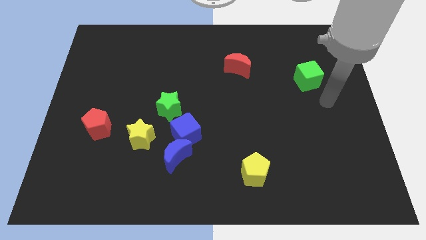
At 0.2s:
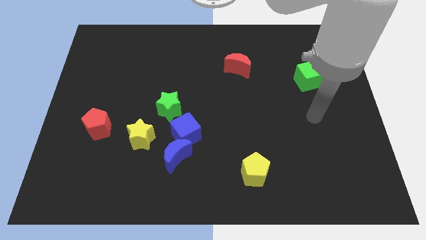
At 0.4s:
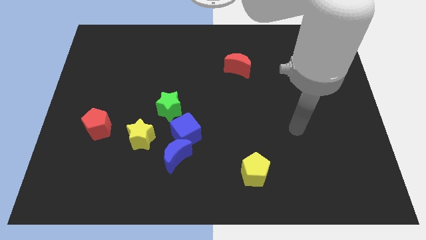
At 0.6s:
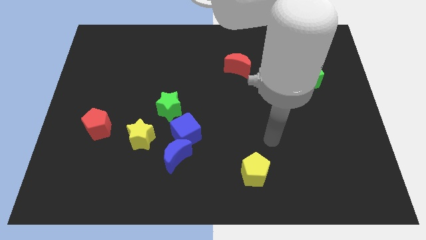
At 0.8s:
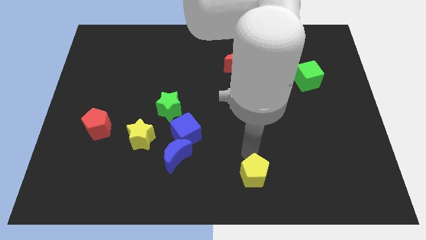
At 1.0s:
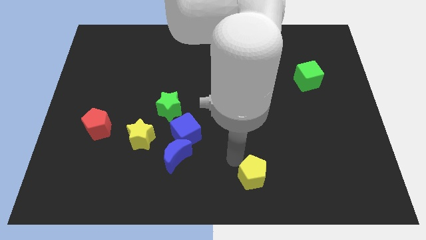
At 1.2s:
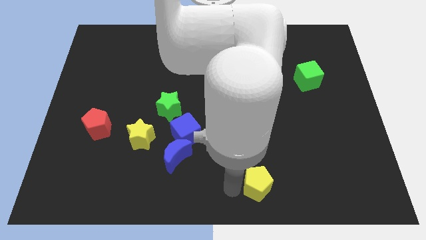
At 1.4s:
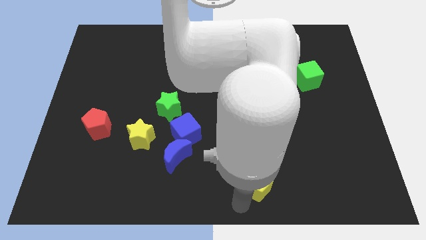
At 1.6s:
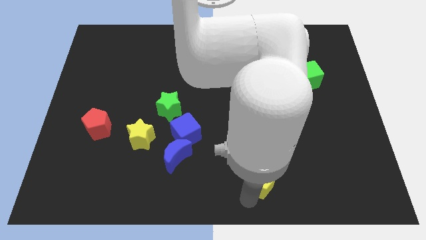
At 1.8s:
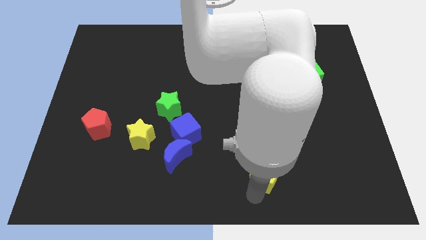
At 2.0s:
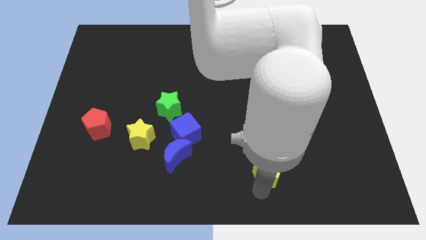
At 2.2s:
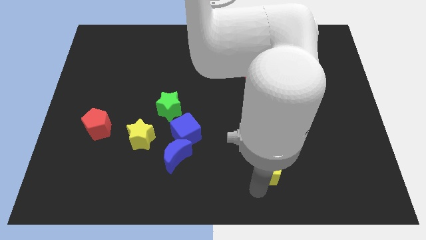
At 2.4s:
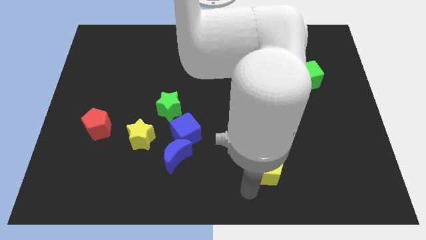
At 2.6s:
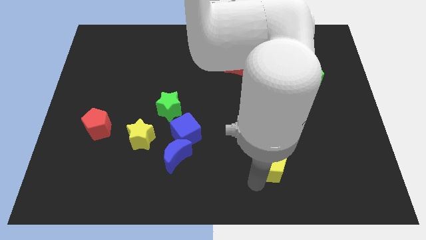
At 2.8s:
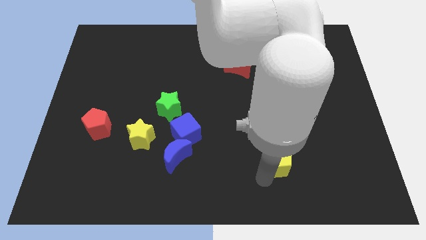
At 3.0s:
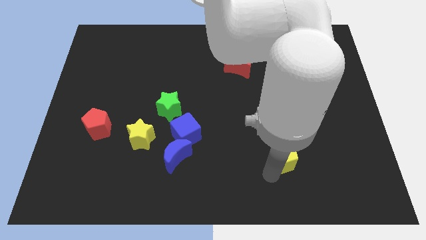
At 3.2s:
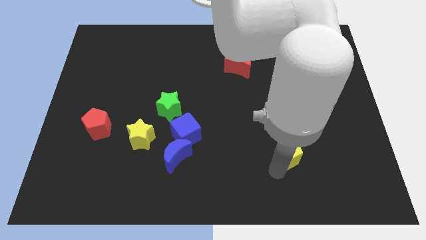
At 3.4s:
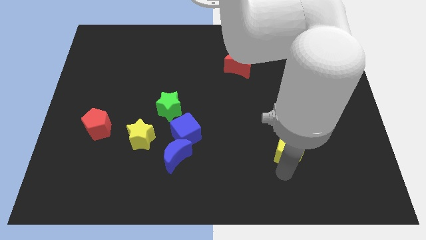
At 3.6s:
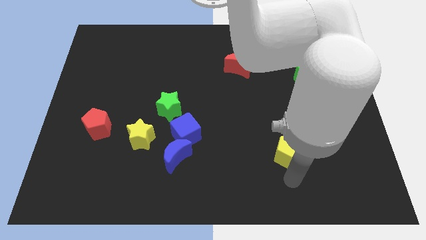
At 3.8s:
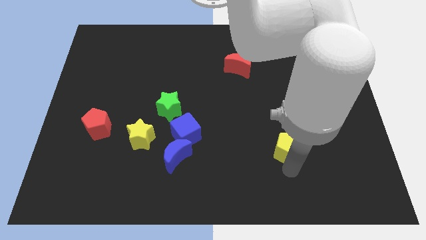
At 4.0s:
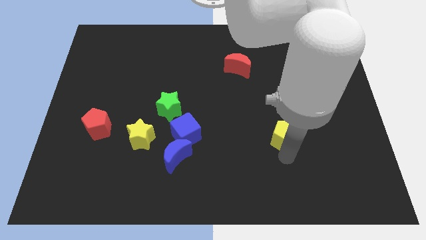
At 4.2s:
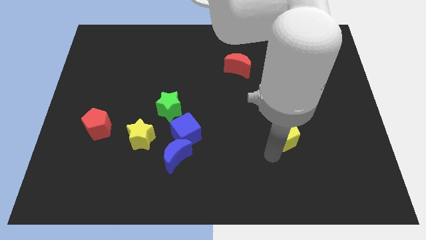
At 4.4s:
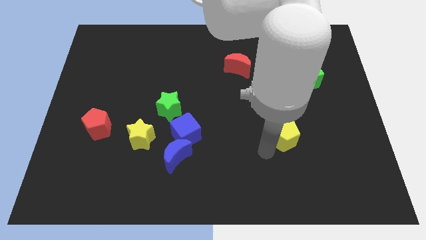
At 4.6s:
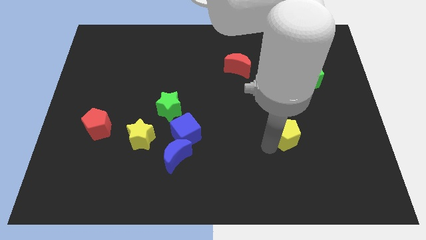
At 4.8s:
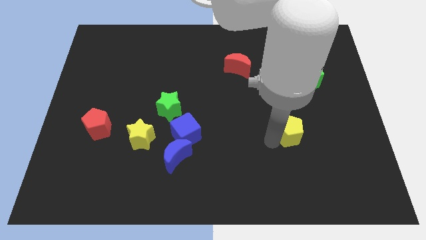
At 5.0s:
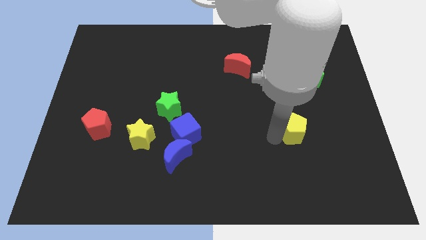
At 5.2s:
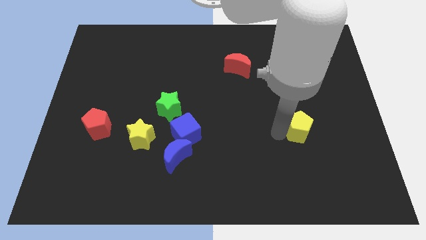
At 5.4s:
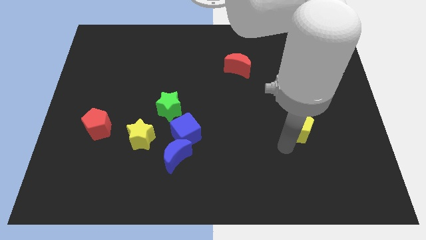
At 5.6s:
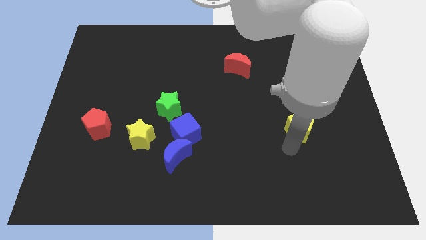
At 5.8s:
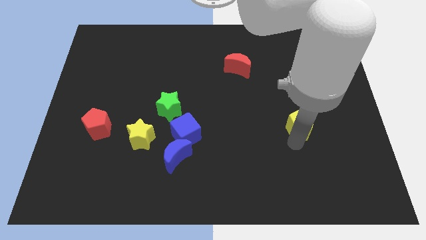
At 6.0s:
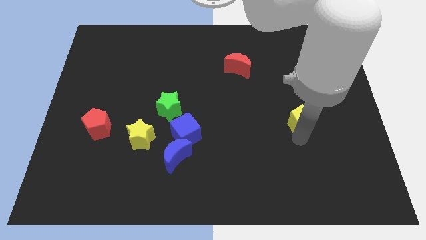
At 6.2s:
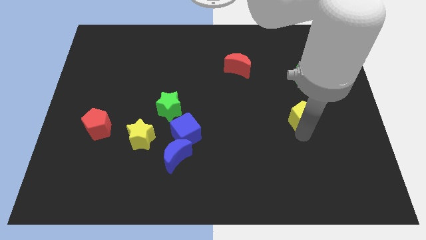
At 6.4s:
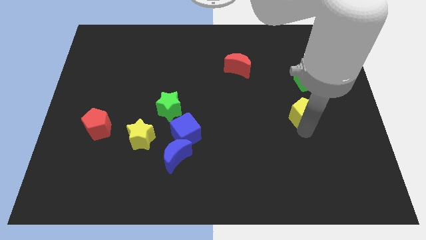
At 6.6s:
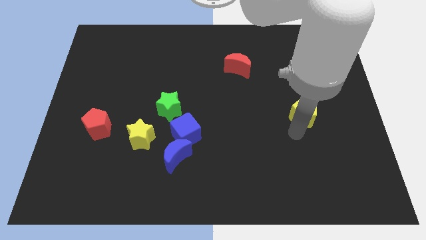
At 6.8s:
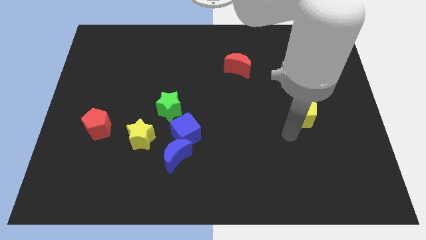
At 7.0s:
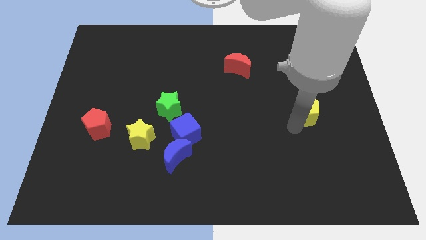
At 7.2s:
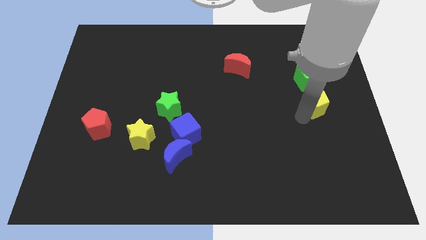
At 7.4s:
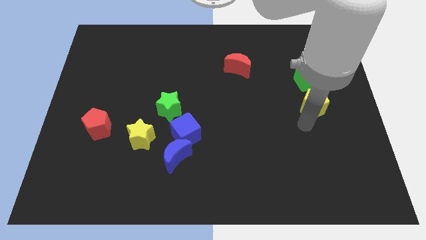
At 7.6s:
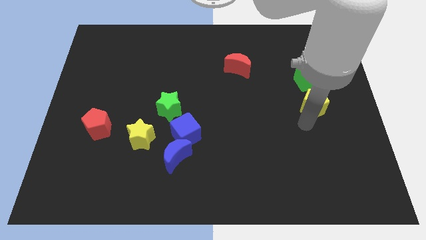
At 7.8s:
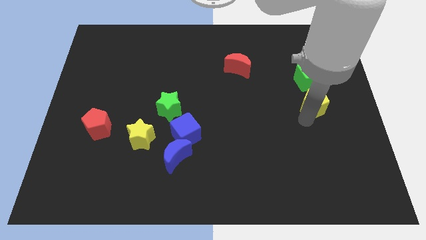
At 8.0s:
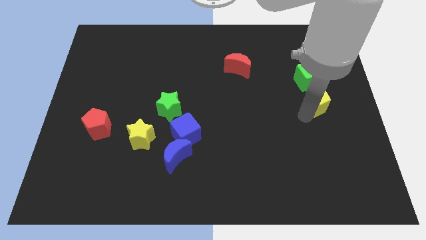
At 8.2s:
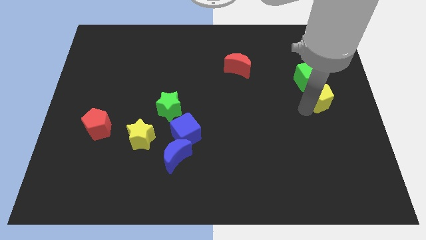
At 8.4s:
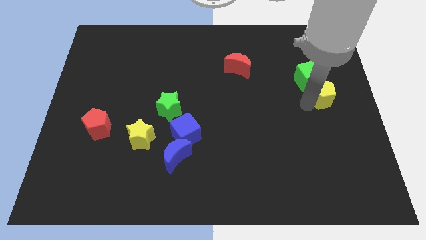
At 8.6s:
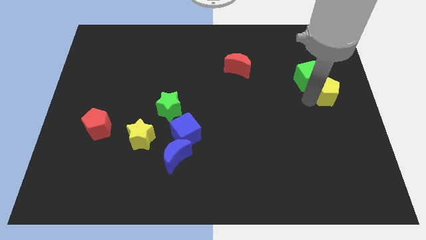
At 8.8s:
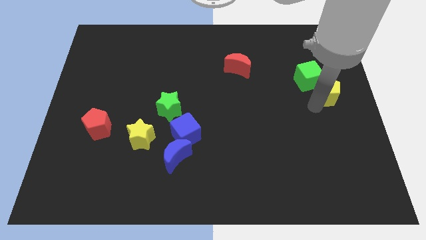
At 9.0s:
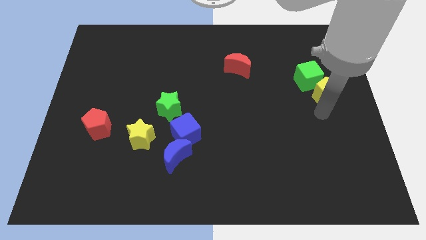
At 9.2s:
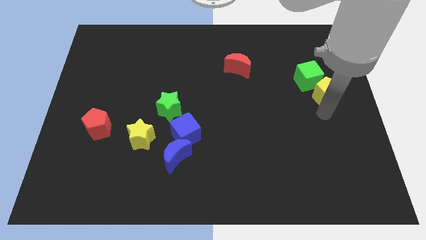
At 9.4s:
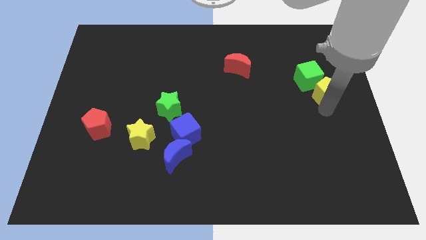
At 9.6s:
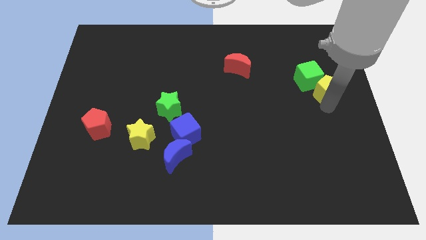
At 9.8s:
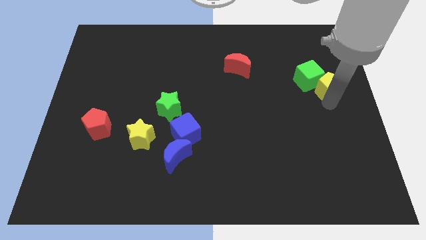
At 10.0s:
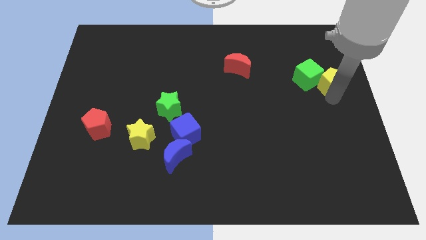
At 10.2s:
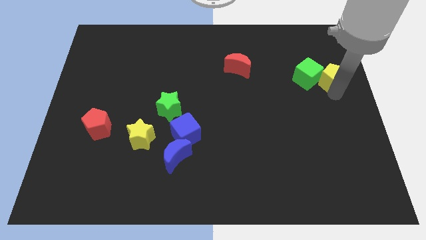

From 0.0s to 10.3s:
put the yellow pentagon to the top right side of the green cube

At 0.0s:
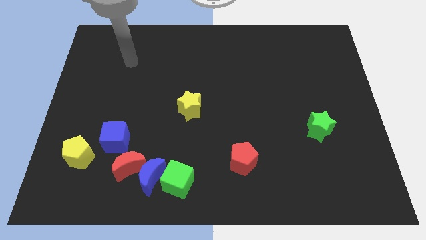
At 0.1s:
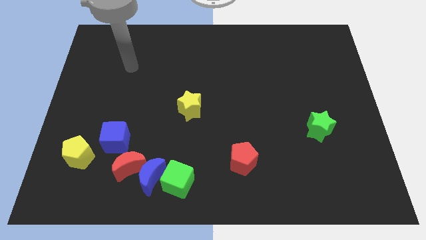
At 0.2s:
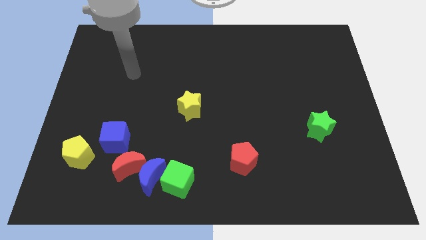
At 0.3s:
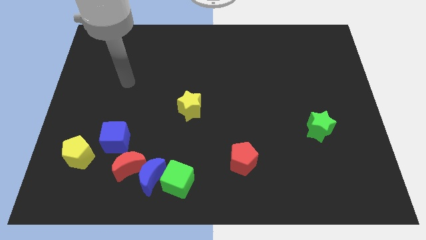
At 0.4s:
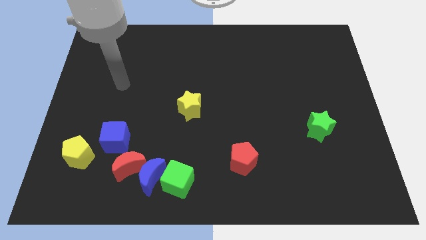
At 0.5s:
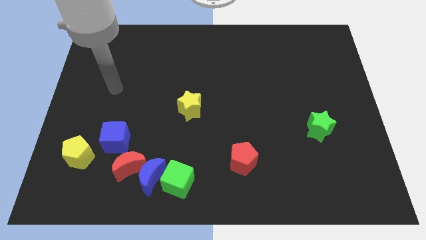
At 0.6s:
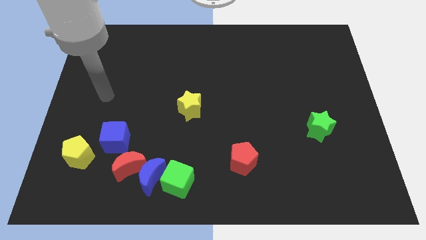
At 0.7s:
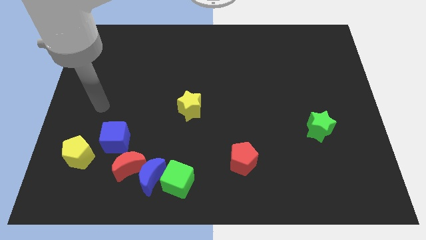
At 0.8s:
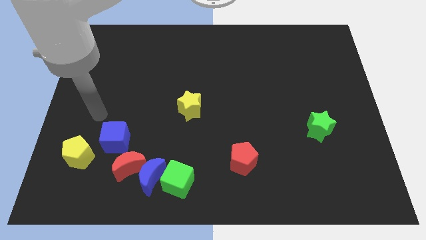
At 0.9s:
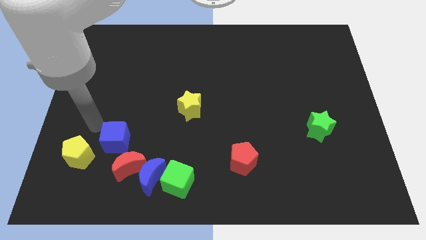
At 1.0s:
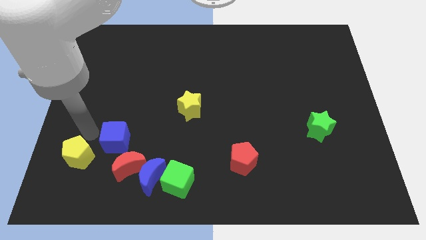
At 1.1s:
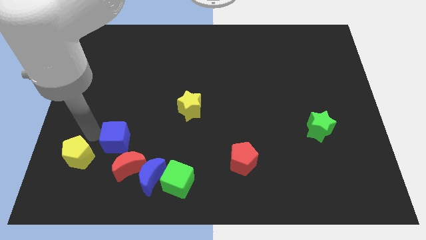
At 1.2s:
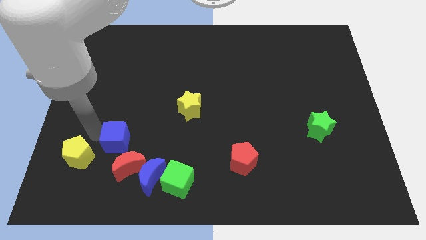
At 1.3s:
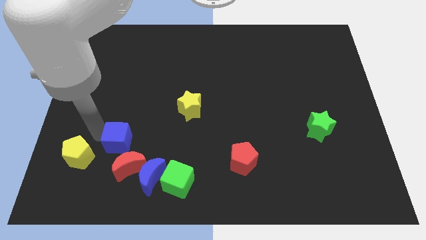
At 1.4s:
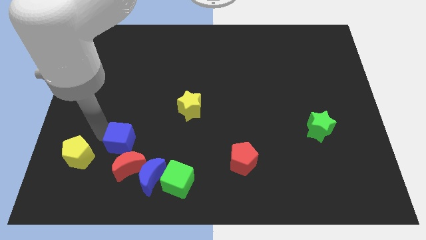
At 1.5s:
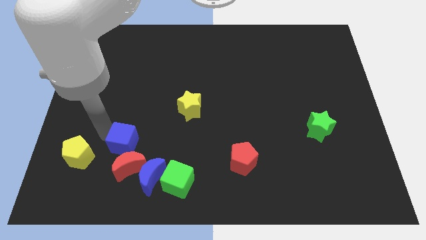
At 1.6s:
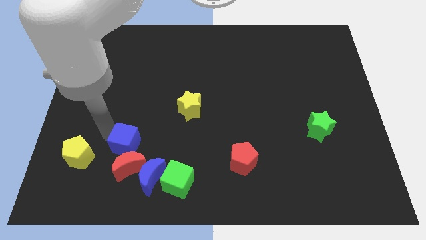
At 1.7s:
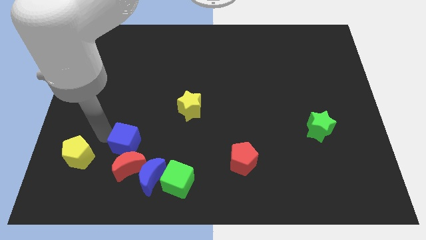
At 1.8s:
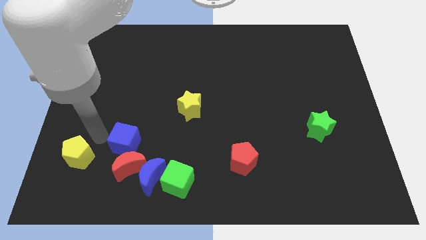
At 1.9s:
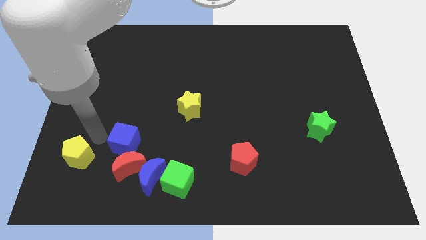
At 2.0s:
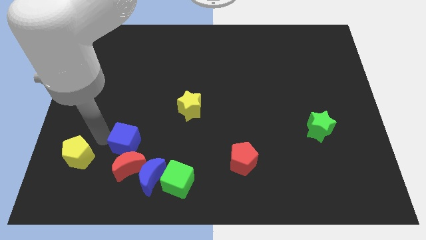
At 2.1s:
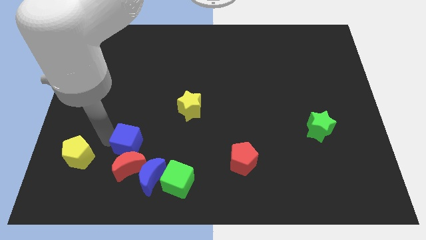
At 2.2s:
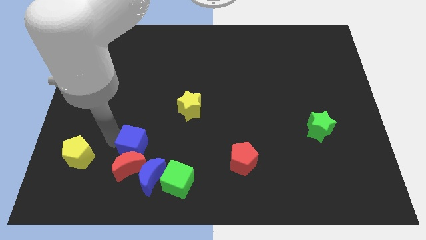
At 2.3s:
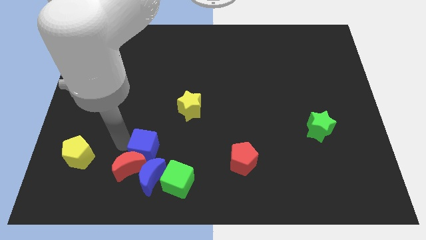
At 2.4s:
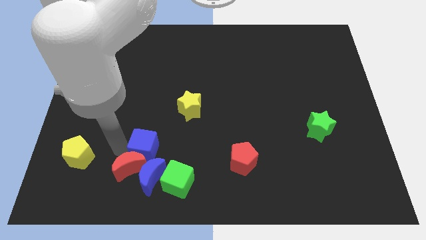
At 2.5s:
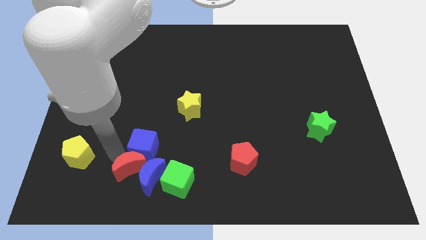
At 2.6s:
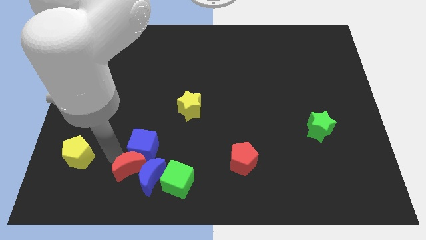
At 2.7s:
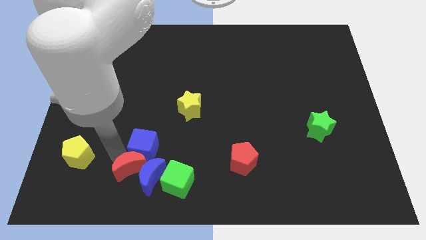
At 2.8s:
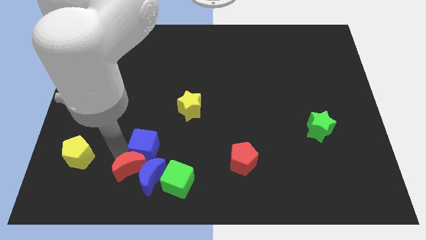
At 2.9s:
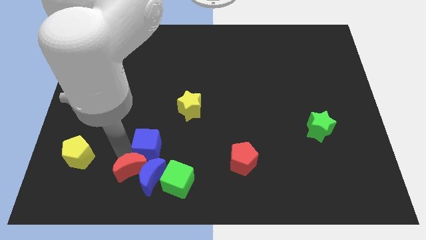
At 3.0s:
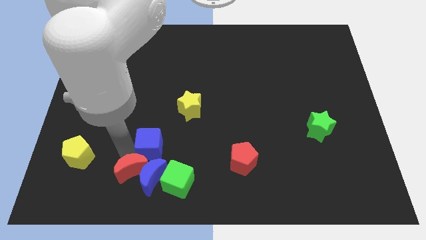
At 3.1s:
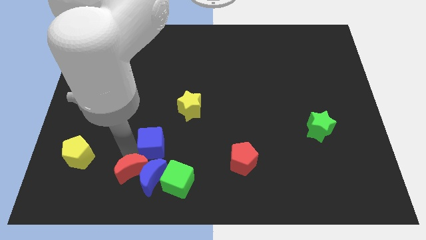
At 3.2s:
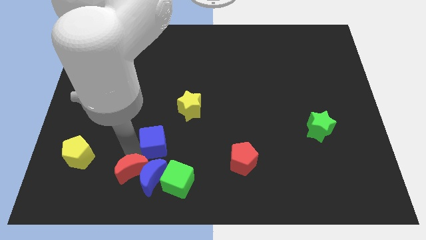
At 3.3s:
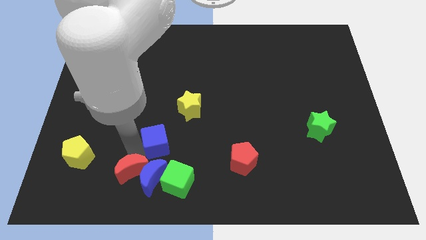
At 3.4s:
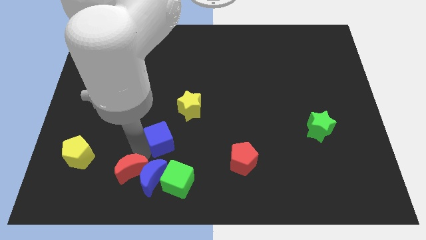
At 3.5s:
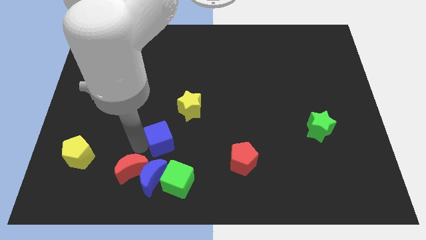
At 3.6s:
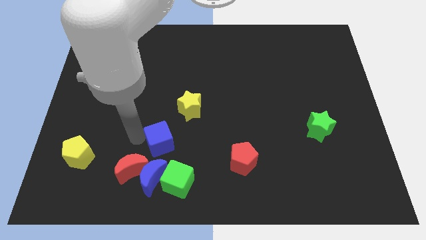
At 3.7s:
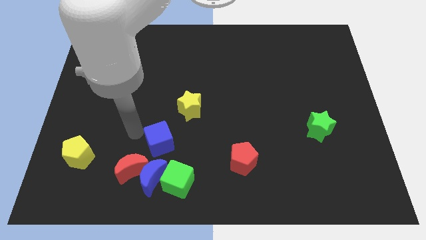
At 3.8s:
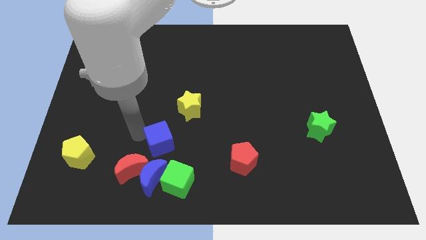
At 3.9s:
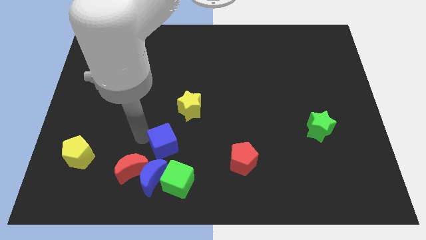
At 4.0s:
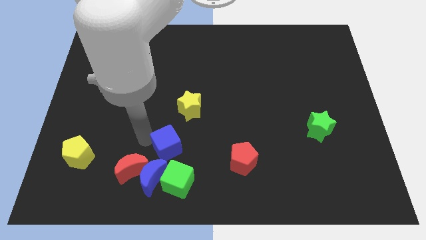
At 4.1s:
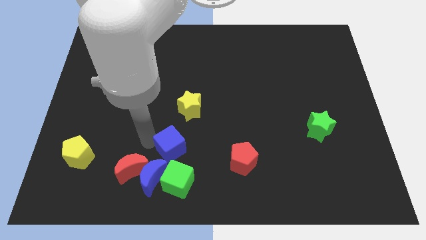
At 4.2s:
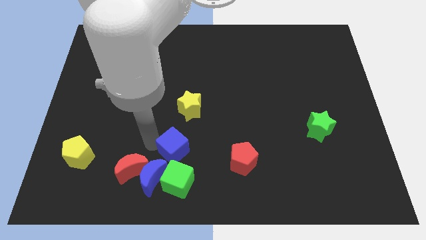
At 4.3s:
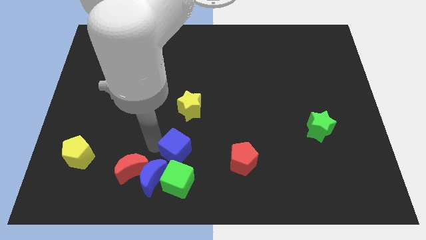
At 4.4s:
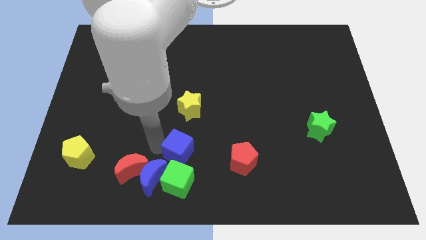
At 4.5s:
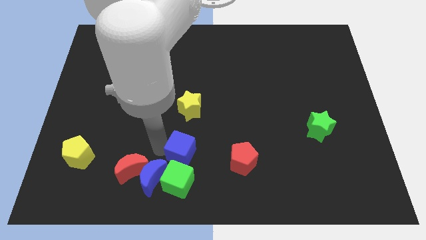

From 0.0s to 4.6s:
put the blue cube to the top right of the green cube
